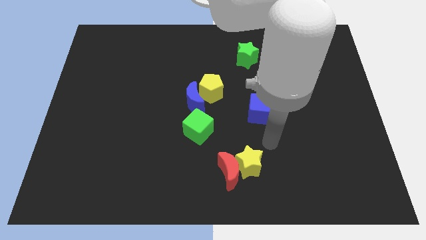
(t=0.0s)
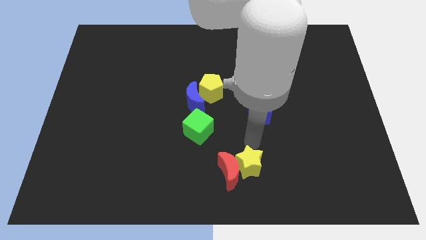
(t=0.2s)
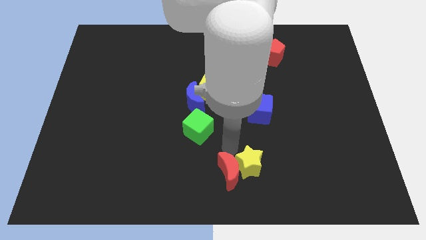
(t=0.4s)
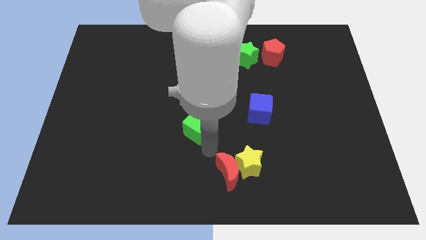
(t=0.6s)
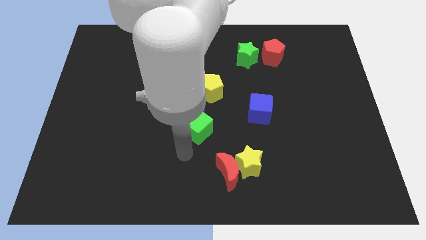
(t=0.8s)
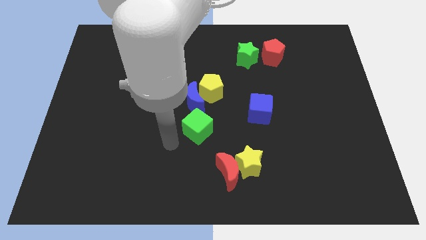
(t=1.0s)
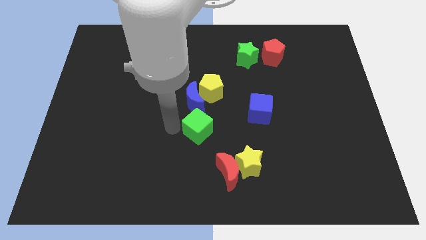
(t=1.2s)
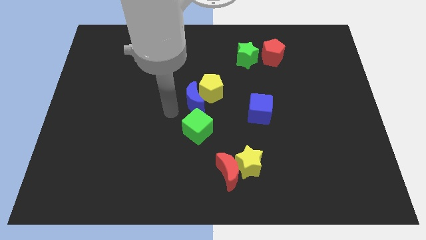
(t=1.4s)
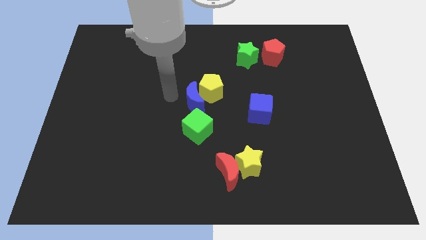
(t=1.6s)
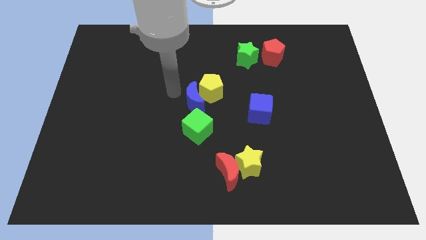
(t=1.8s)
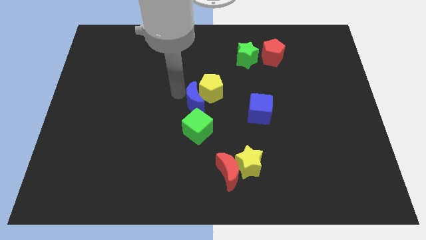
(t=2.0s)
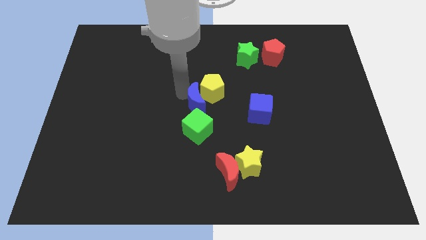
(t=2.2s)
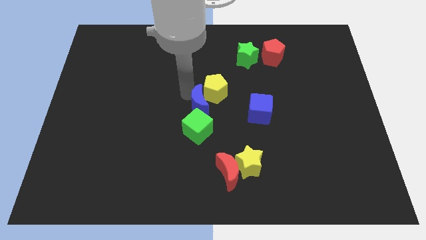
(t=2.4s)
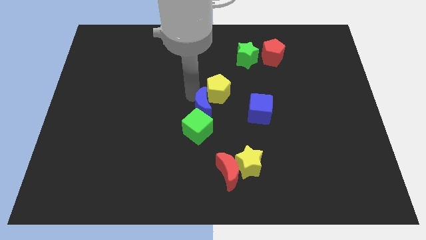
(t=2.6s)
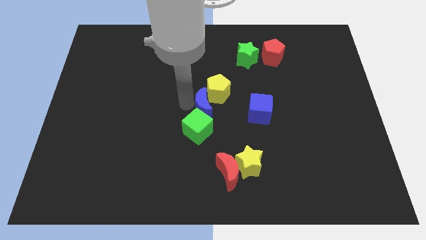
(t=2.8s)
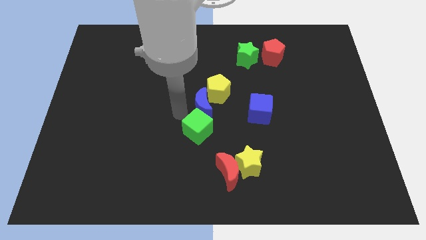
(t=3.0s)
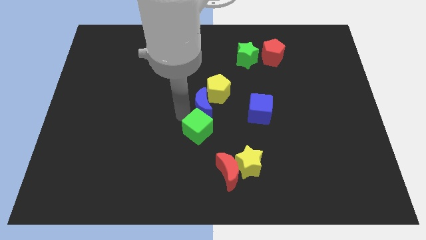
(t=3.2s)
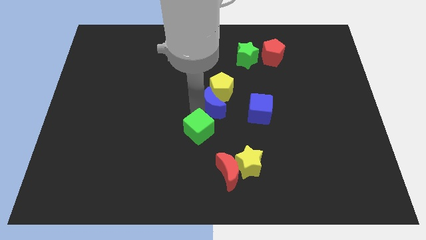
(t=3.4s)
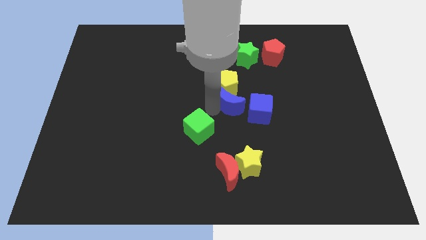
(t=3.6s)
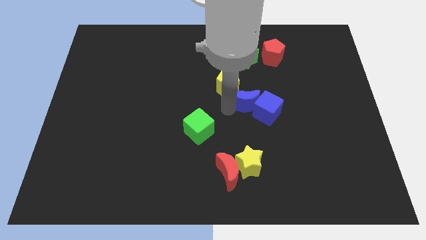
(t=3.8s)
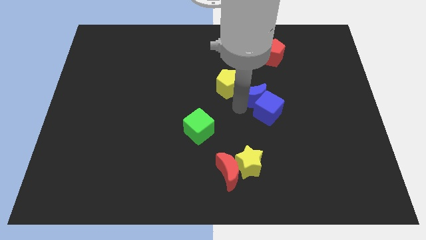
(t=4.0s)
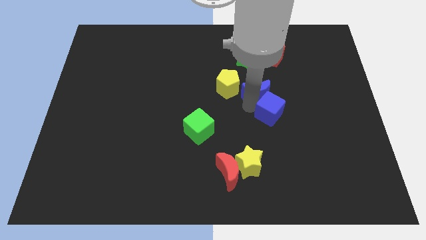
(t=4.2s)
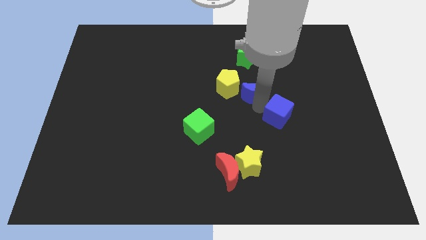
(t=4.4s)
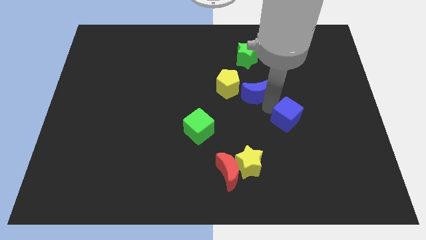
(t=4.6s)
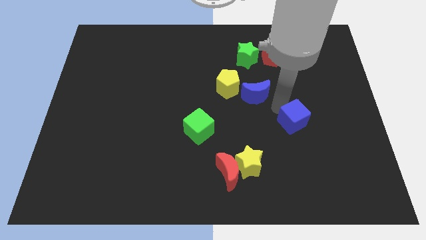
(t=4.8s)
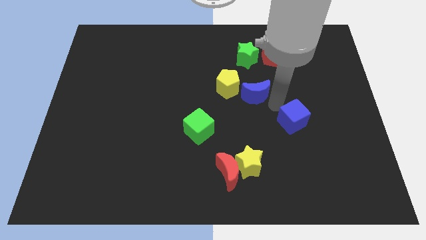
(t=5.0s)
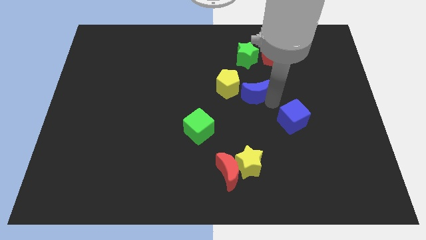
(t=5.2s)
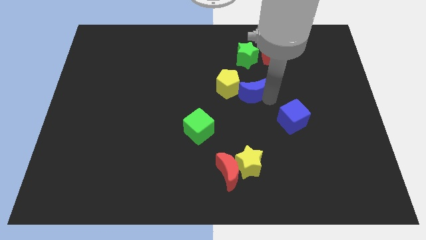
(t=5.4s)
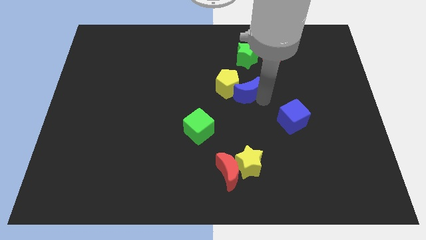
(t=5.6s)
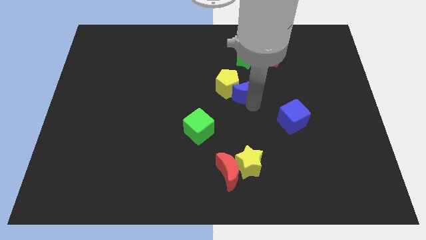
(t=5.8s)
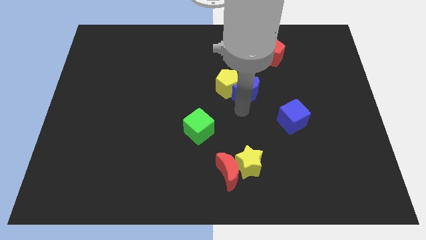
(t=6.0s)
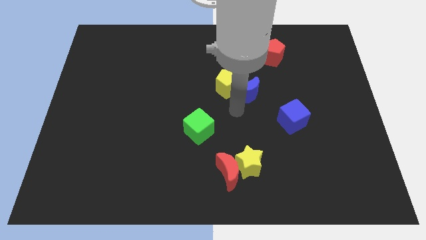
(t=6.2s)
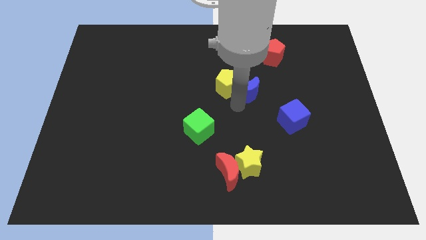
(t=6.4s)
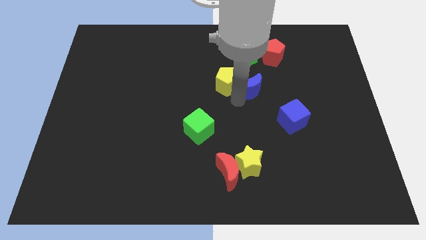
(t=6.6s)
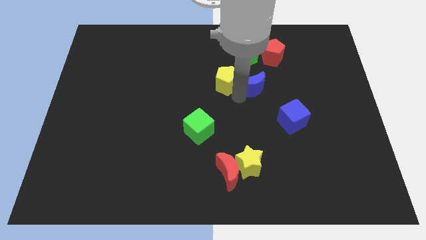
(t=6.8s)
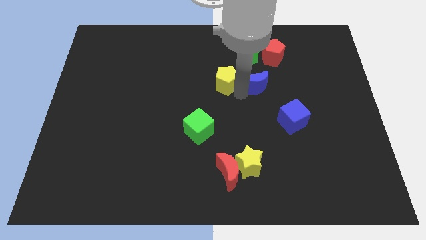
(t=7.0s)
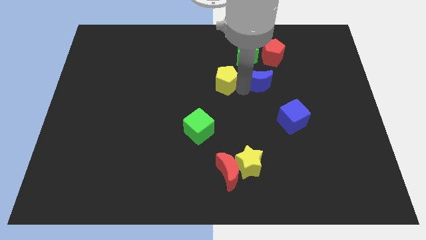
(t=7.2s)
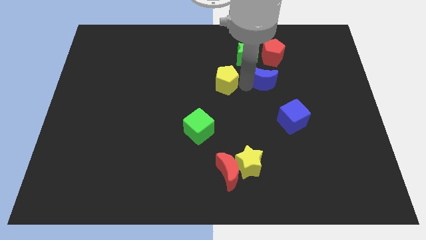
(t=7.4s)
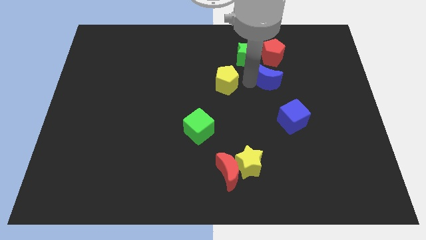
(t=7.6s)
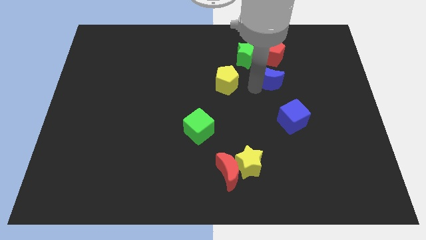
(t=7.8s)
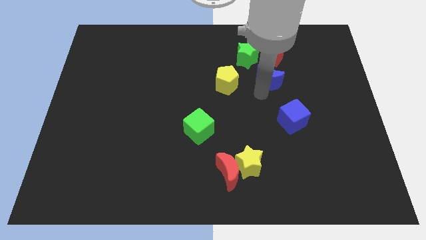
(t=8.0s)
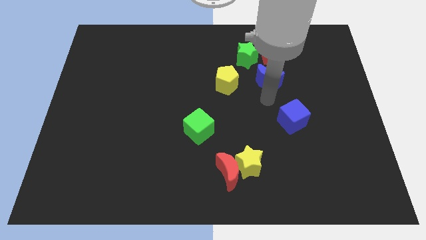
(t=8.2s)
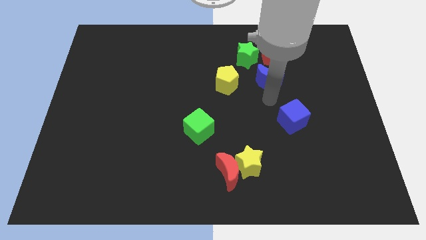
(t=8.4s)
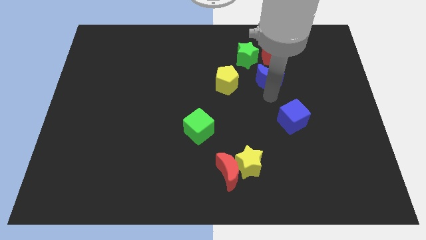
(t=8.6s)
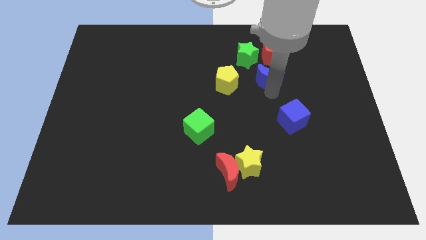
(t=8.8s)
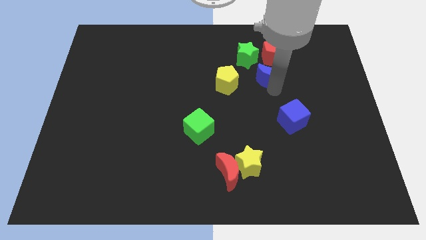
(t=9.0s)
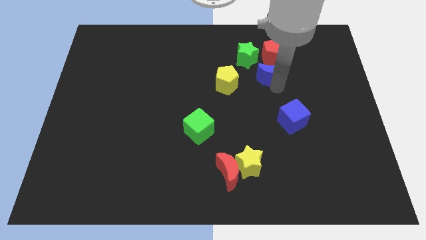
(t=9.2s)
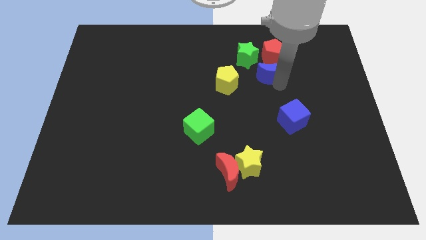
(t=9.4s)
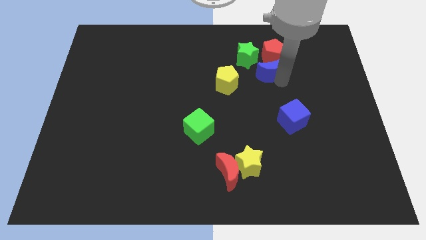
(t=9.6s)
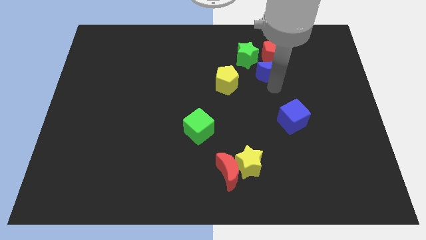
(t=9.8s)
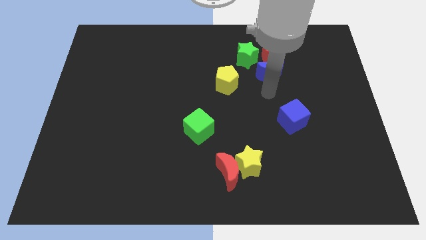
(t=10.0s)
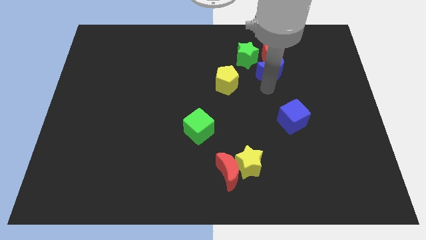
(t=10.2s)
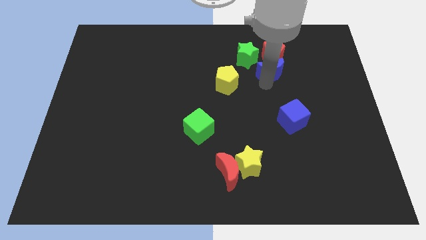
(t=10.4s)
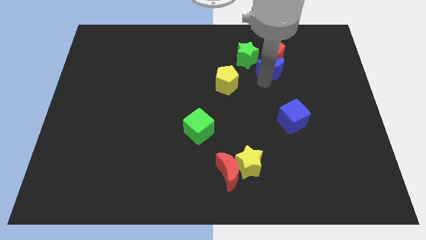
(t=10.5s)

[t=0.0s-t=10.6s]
put the blue moon next to the red pentagon
